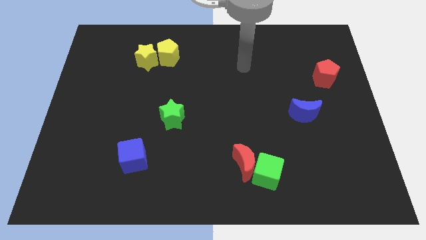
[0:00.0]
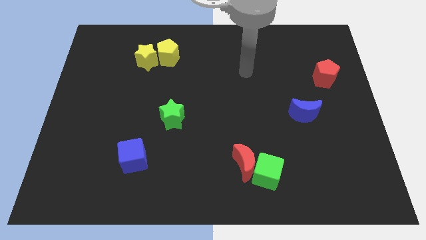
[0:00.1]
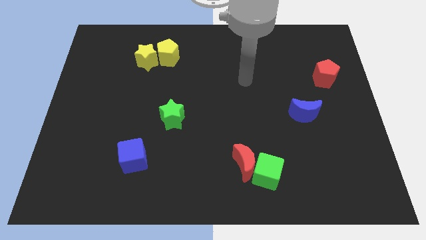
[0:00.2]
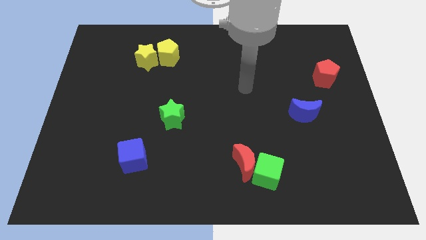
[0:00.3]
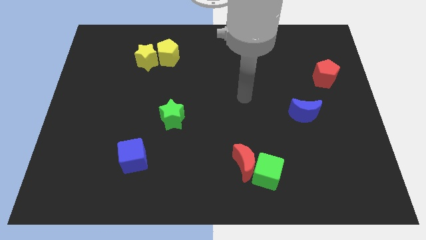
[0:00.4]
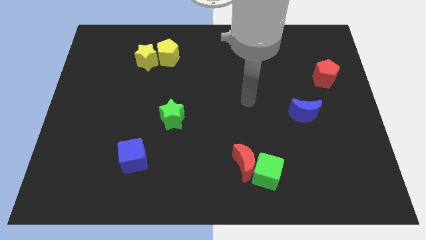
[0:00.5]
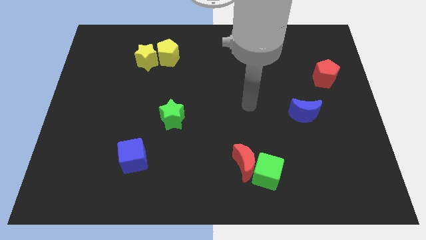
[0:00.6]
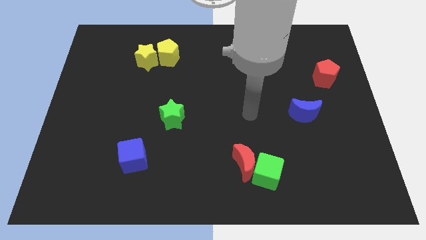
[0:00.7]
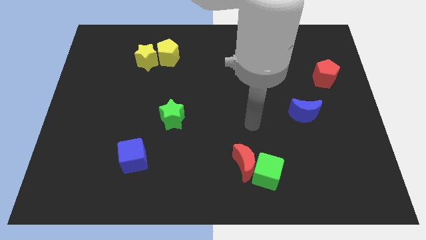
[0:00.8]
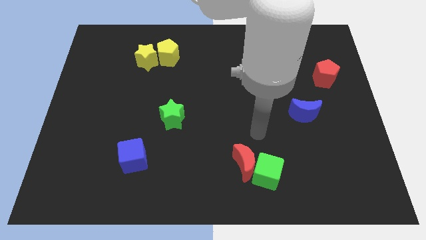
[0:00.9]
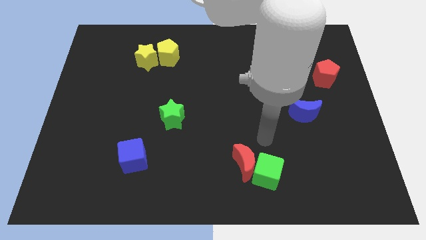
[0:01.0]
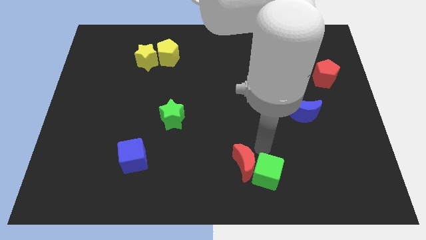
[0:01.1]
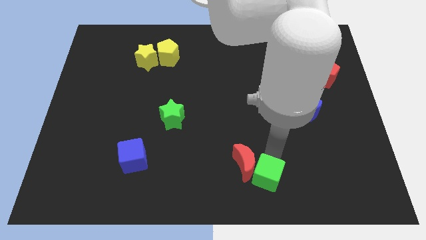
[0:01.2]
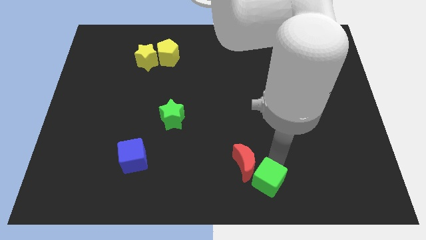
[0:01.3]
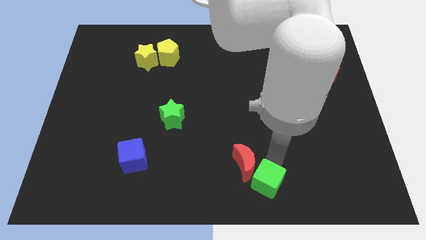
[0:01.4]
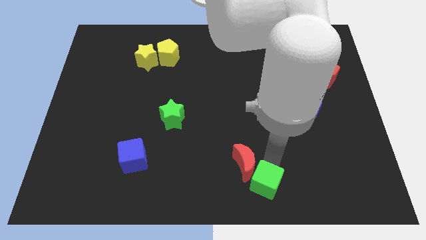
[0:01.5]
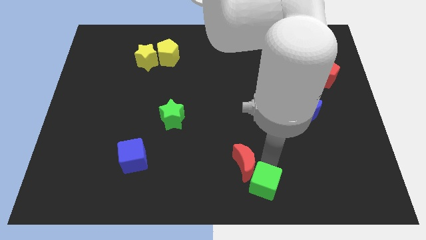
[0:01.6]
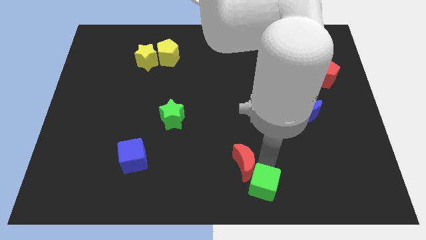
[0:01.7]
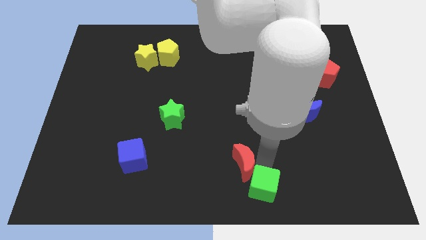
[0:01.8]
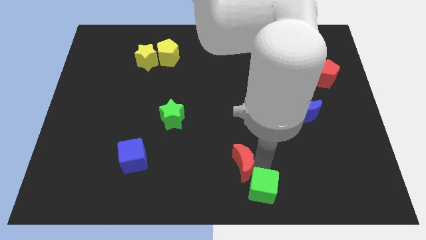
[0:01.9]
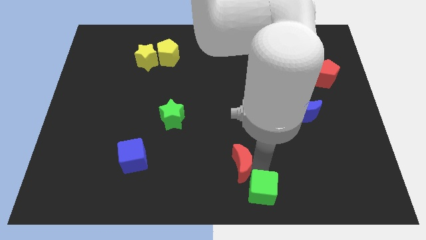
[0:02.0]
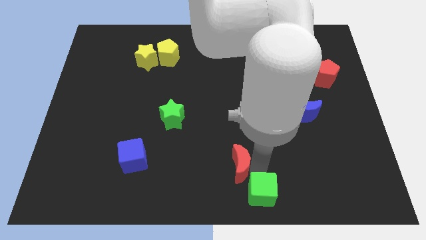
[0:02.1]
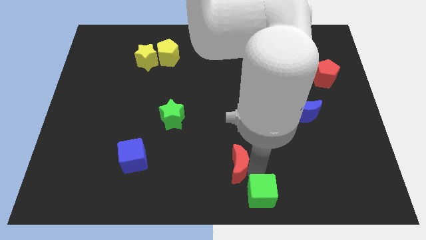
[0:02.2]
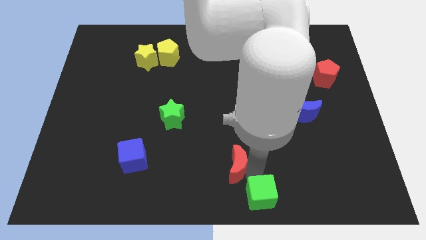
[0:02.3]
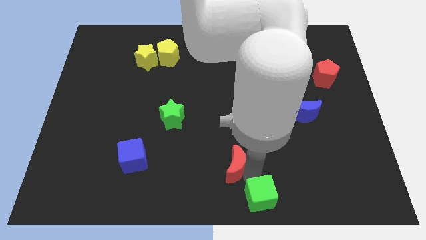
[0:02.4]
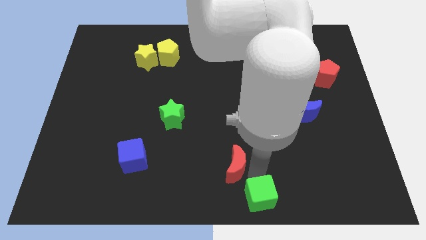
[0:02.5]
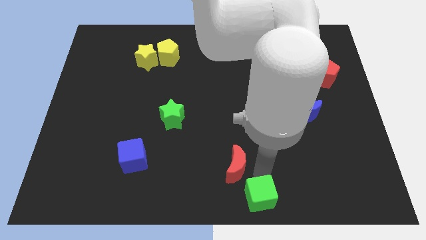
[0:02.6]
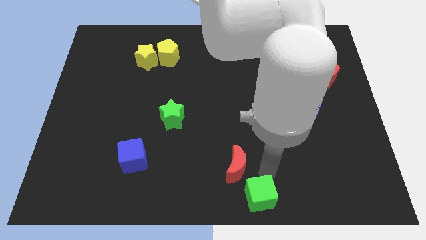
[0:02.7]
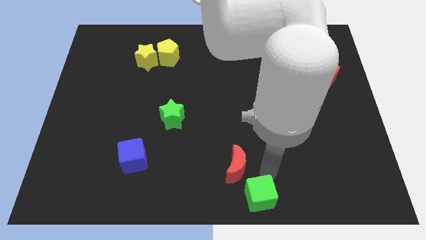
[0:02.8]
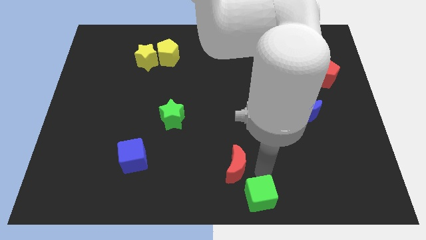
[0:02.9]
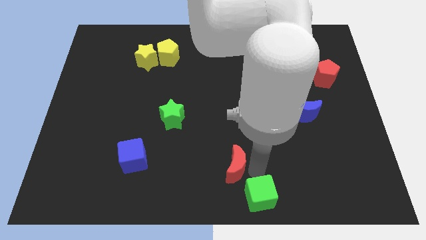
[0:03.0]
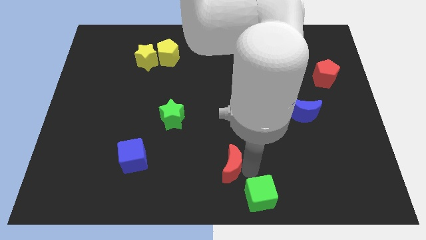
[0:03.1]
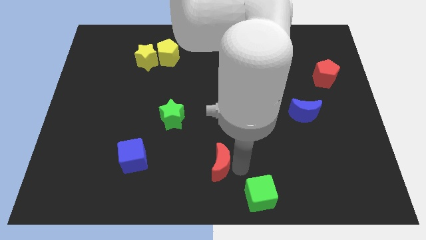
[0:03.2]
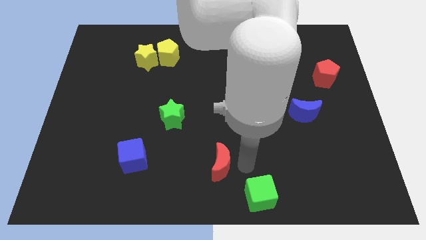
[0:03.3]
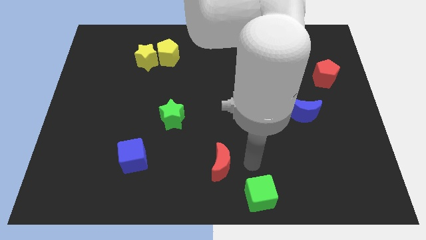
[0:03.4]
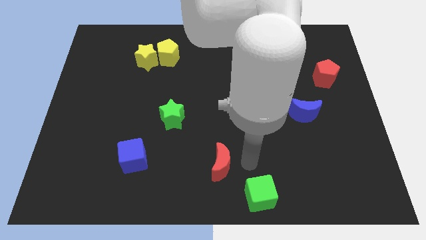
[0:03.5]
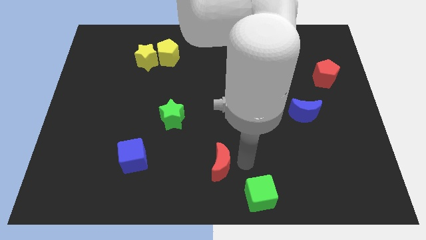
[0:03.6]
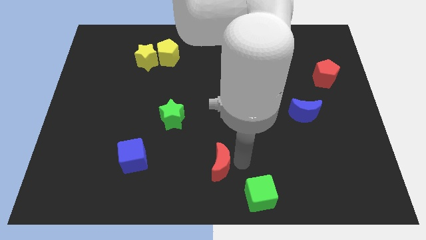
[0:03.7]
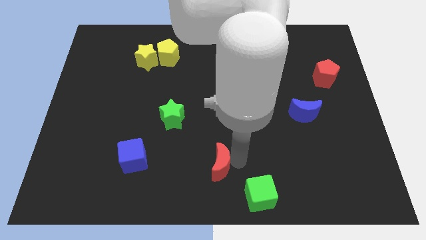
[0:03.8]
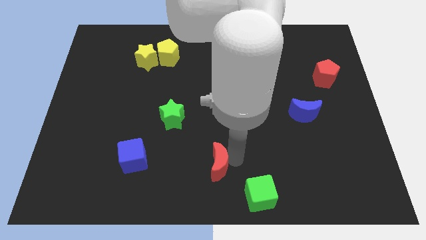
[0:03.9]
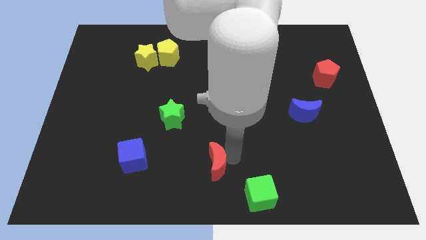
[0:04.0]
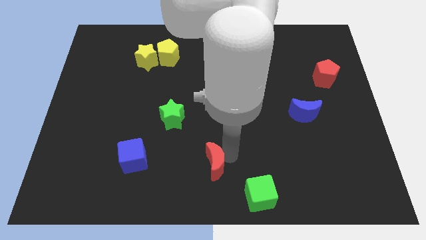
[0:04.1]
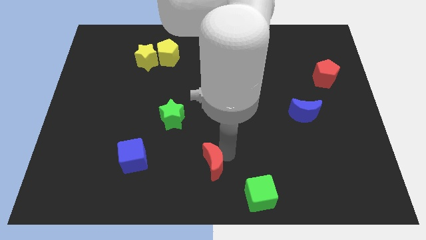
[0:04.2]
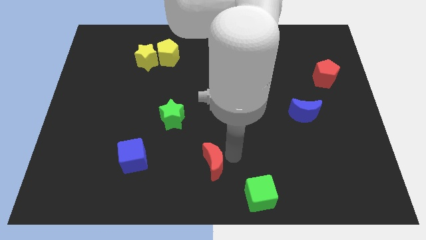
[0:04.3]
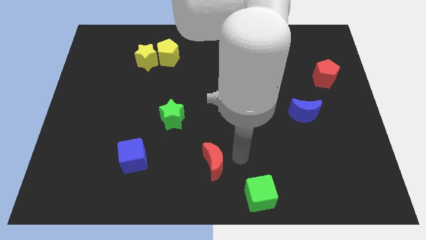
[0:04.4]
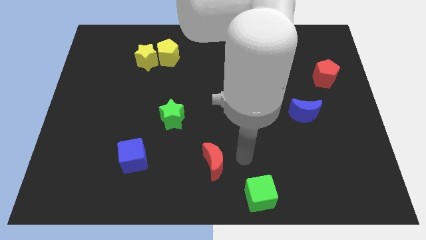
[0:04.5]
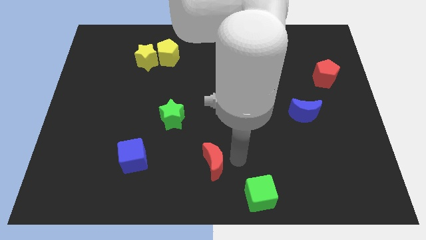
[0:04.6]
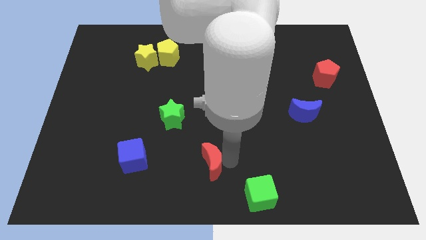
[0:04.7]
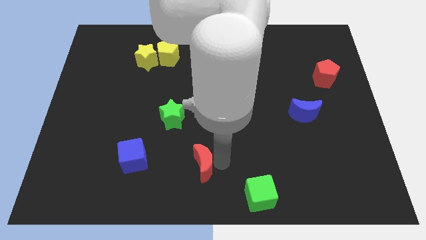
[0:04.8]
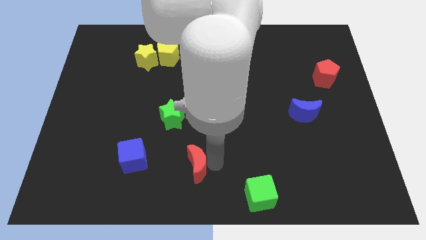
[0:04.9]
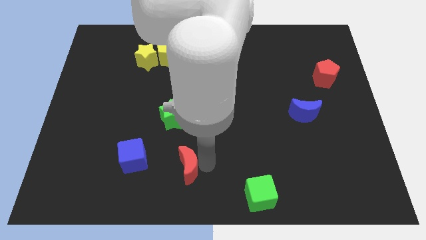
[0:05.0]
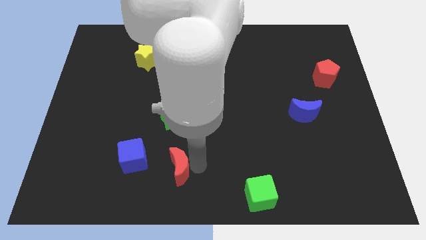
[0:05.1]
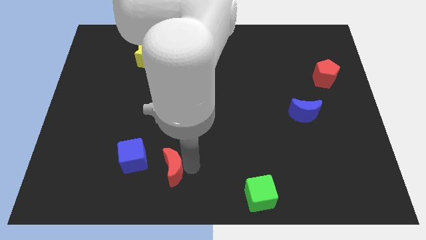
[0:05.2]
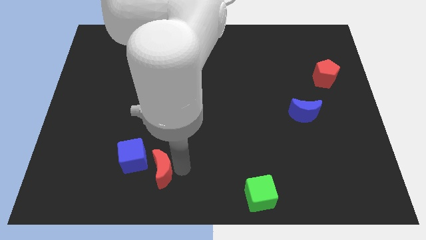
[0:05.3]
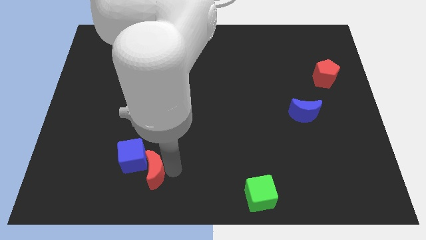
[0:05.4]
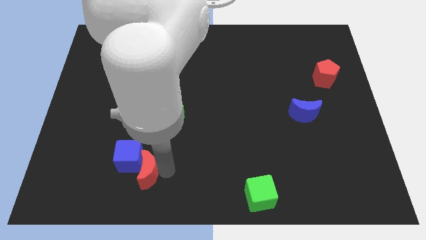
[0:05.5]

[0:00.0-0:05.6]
slide the red moon to the left

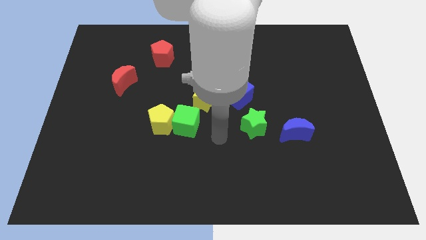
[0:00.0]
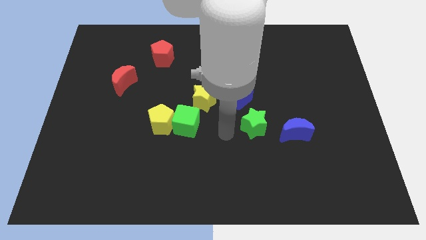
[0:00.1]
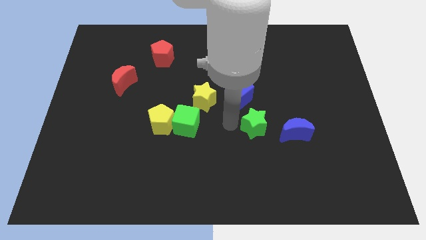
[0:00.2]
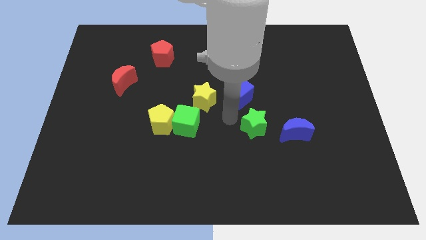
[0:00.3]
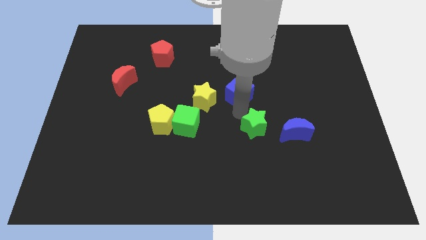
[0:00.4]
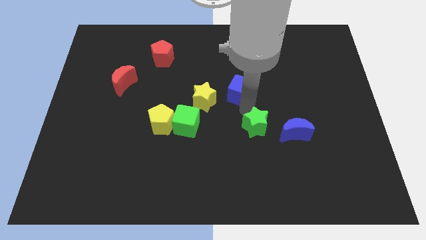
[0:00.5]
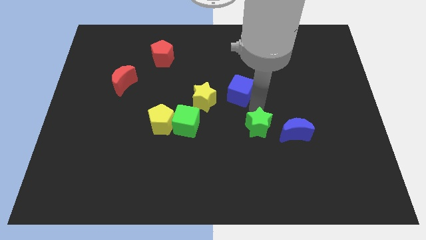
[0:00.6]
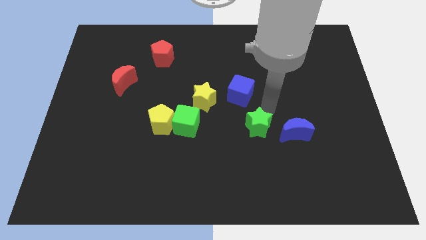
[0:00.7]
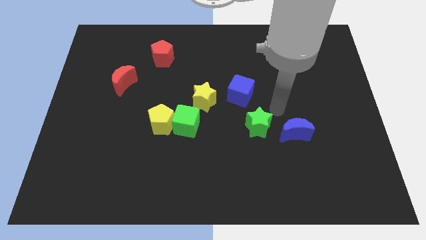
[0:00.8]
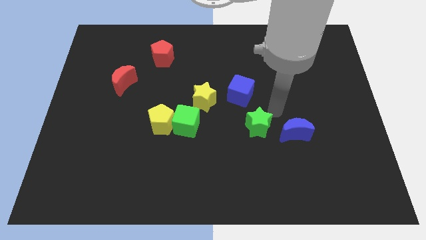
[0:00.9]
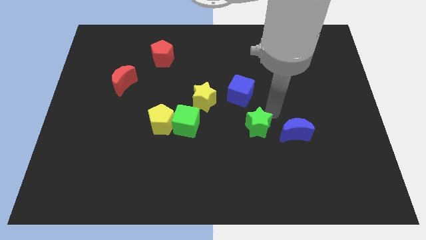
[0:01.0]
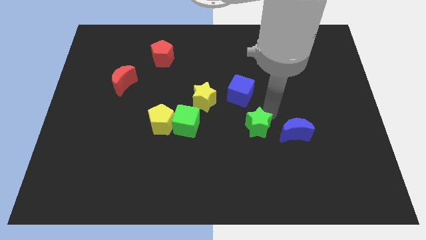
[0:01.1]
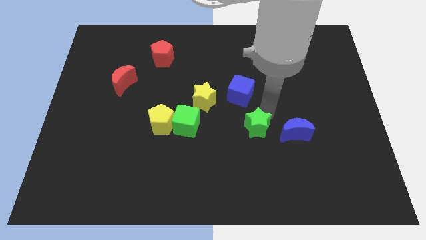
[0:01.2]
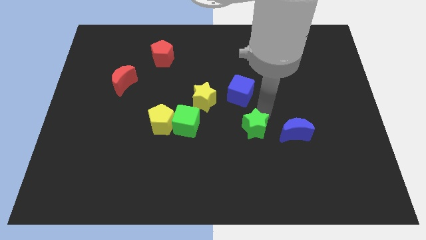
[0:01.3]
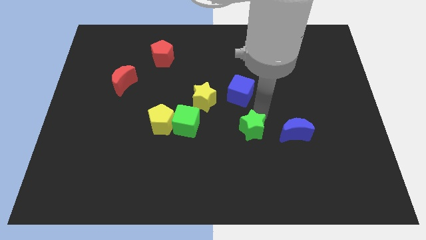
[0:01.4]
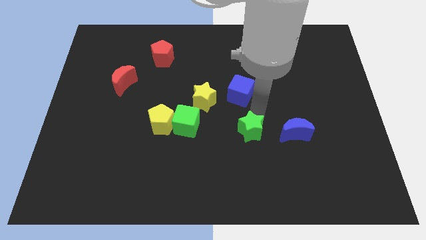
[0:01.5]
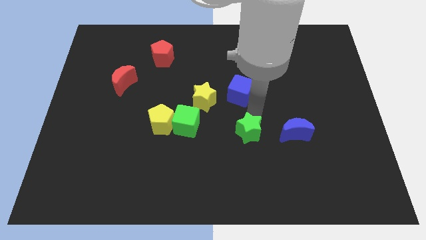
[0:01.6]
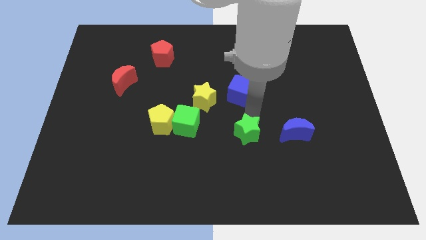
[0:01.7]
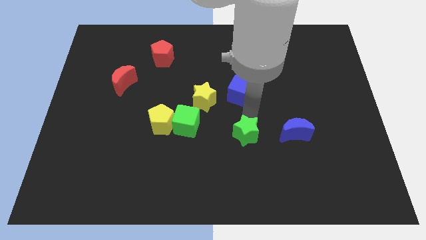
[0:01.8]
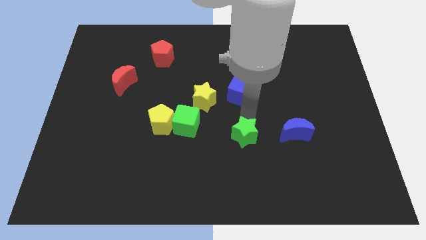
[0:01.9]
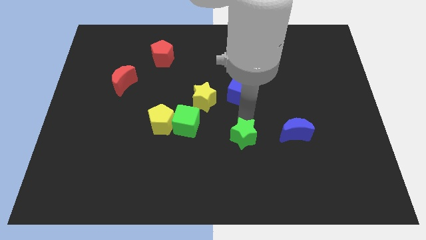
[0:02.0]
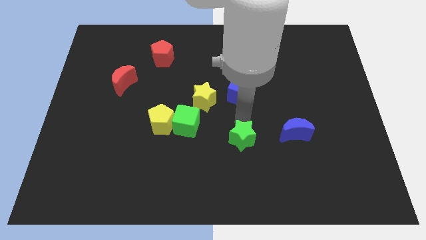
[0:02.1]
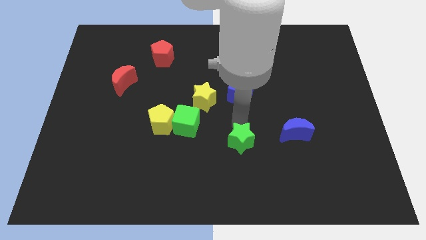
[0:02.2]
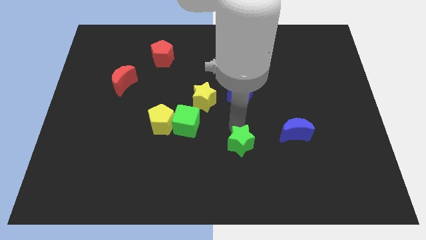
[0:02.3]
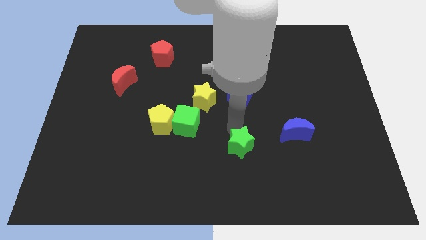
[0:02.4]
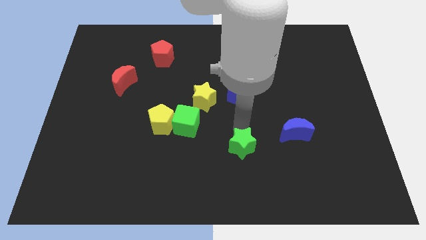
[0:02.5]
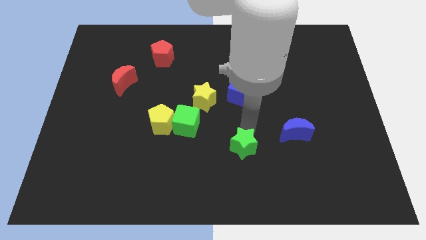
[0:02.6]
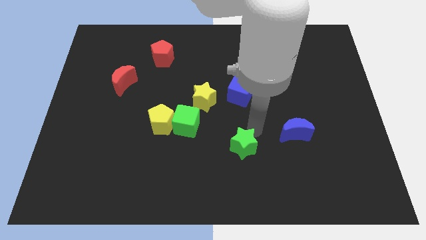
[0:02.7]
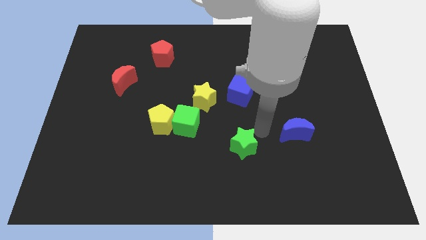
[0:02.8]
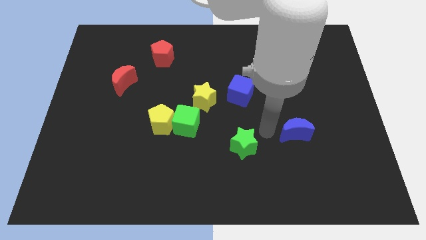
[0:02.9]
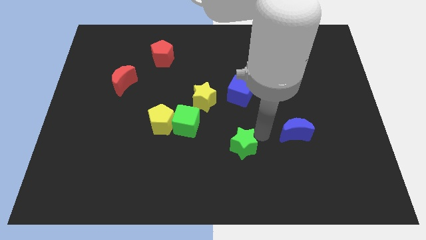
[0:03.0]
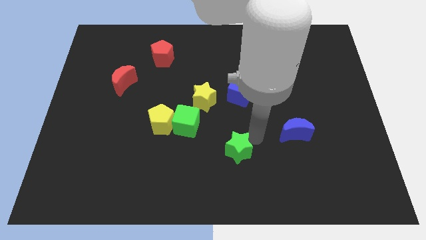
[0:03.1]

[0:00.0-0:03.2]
push the green star somewhat diagonally downwards and to the left
